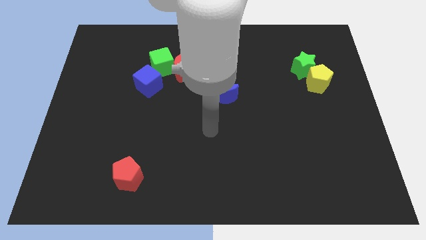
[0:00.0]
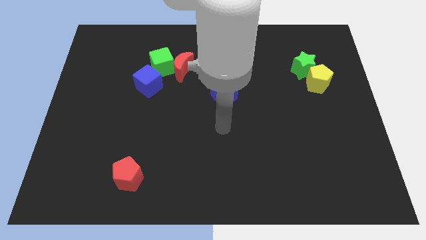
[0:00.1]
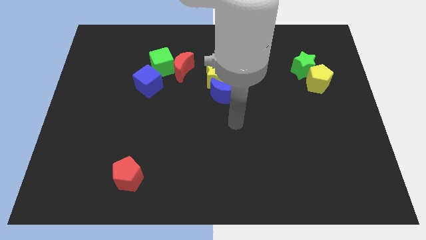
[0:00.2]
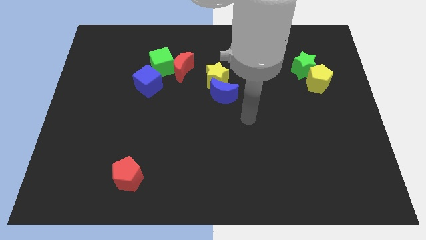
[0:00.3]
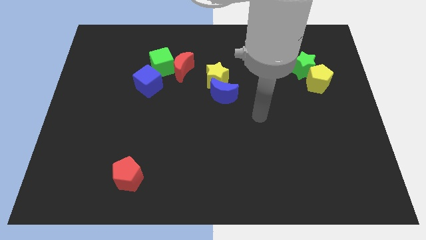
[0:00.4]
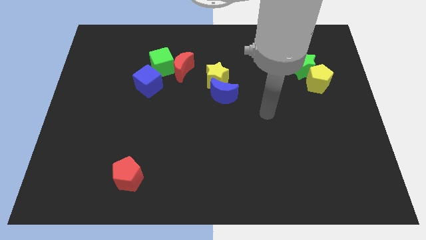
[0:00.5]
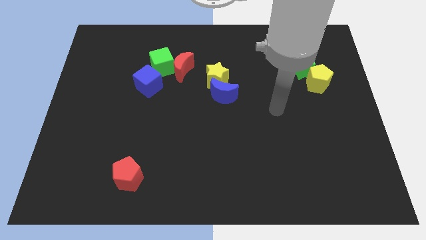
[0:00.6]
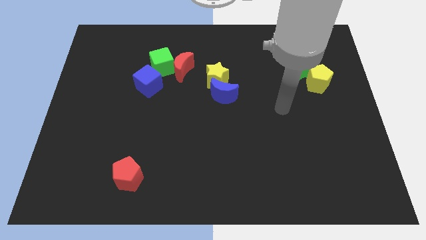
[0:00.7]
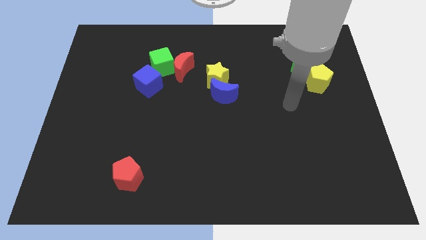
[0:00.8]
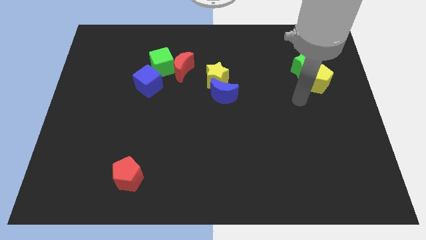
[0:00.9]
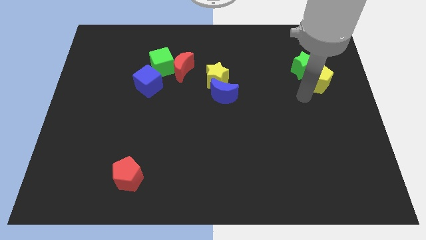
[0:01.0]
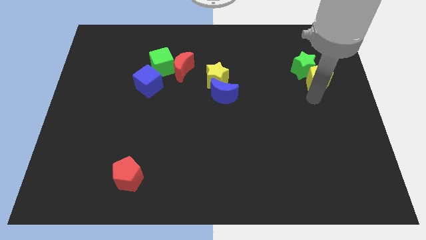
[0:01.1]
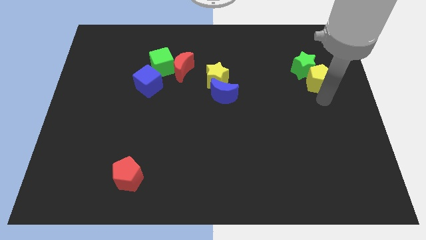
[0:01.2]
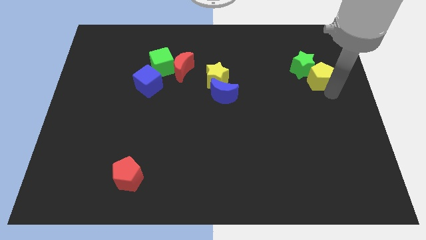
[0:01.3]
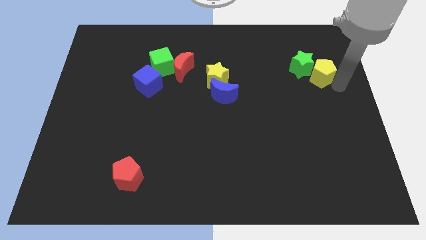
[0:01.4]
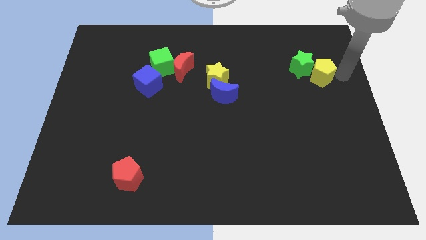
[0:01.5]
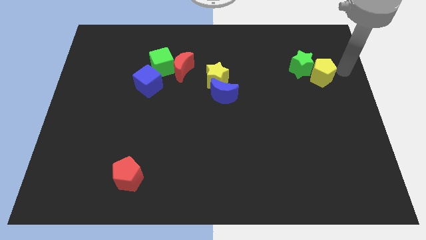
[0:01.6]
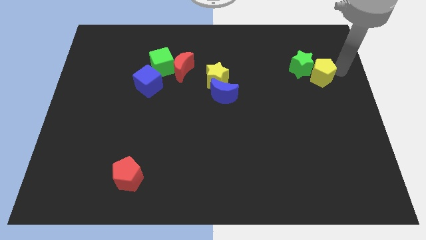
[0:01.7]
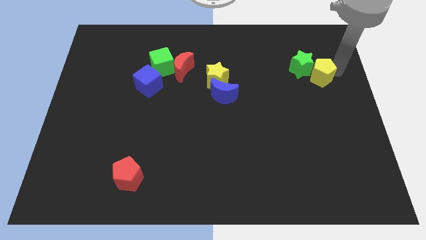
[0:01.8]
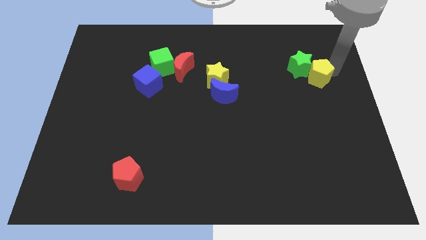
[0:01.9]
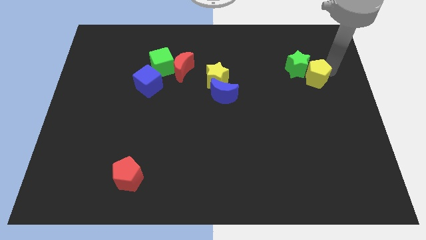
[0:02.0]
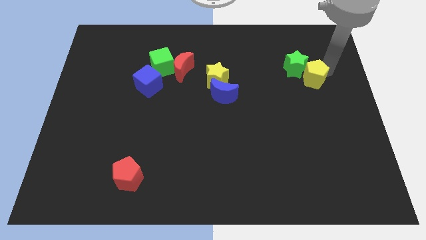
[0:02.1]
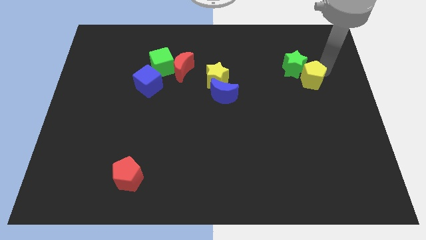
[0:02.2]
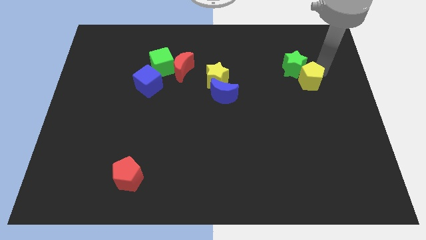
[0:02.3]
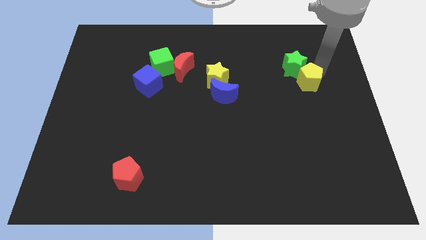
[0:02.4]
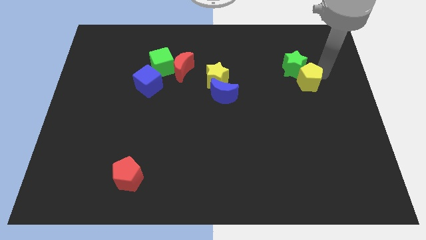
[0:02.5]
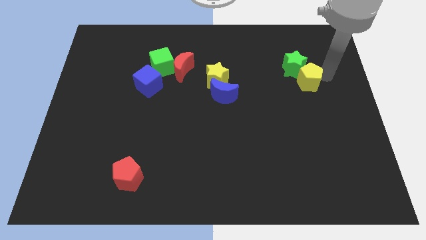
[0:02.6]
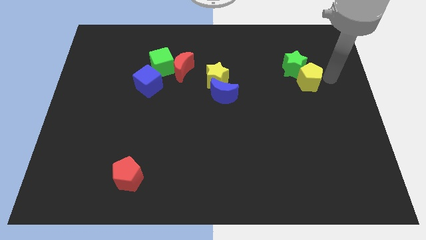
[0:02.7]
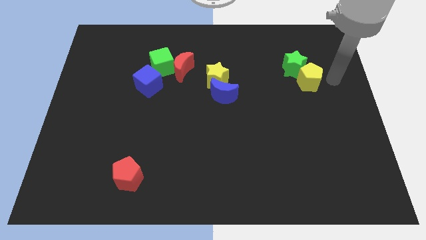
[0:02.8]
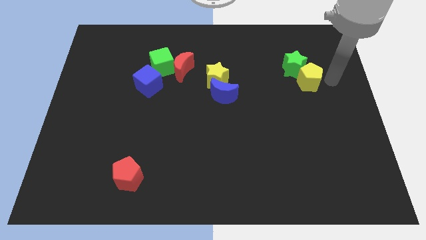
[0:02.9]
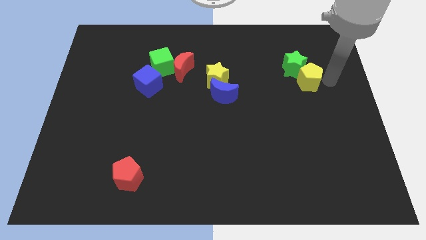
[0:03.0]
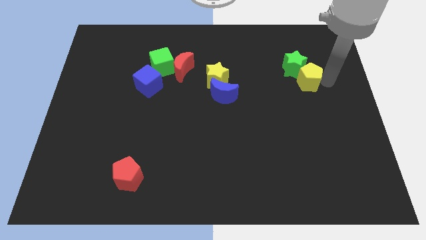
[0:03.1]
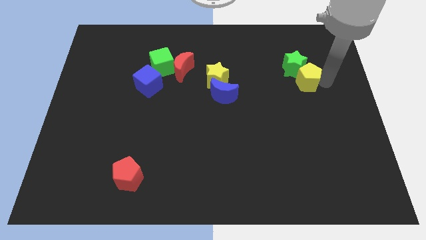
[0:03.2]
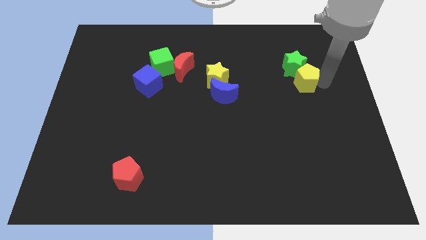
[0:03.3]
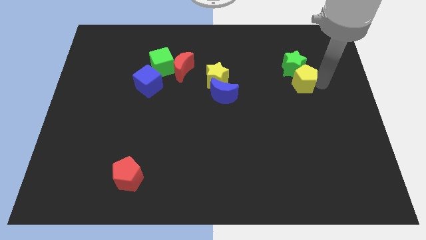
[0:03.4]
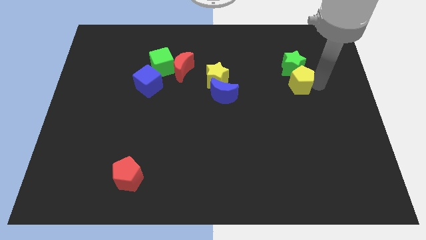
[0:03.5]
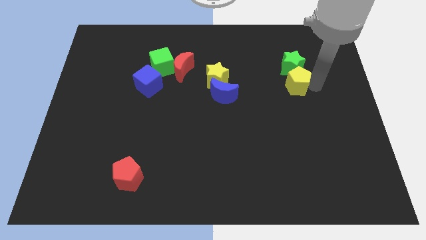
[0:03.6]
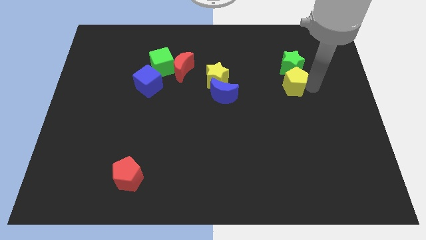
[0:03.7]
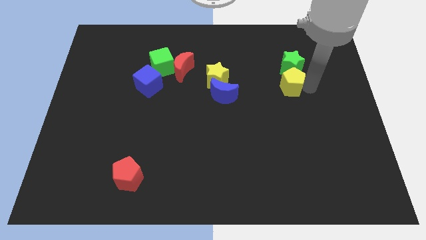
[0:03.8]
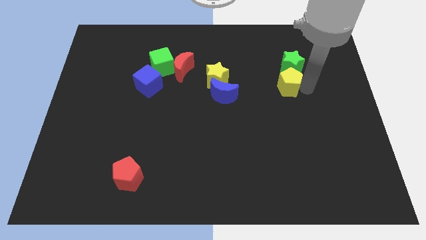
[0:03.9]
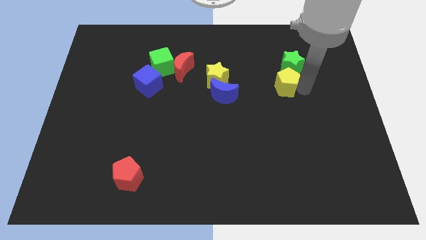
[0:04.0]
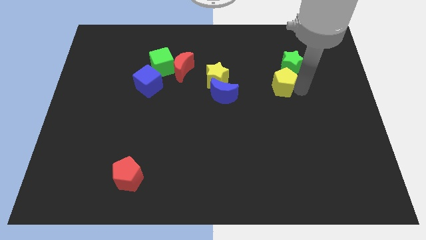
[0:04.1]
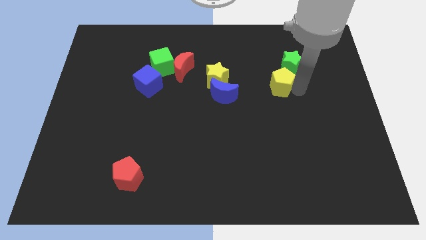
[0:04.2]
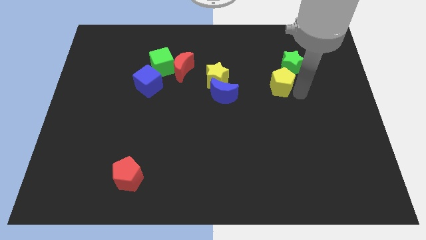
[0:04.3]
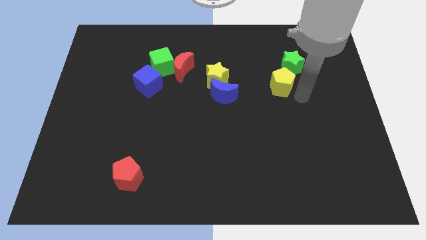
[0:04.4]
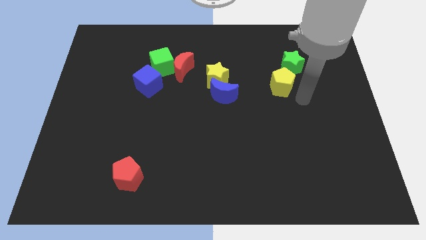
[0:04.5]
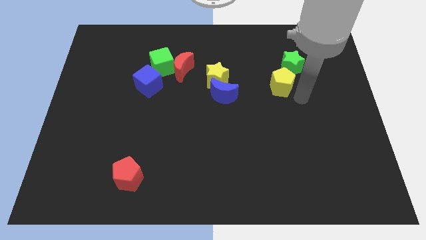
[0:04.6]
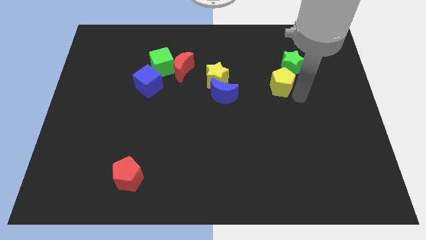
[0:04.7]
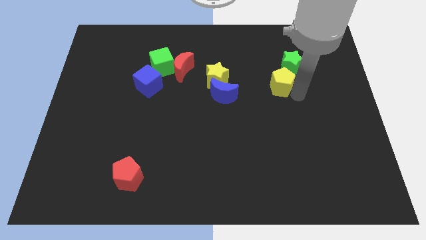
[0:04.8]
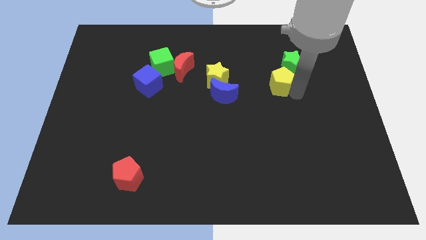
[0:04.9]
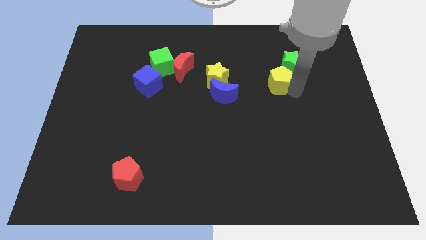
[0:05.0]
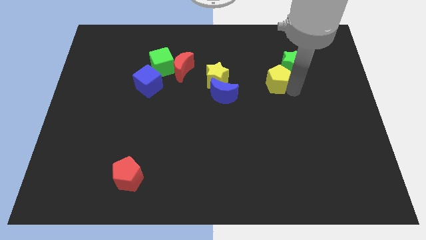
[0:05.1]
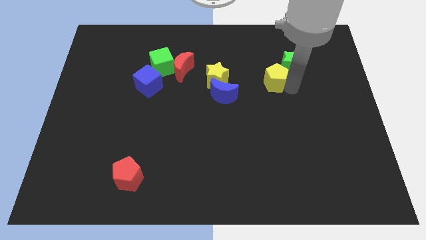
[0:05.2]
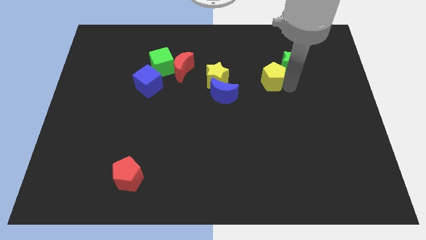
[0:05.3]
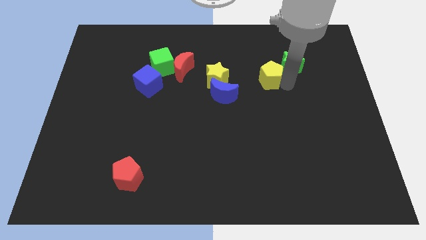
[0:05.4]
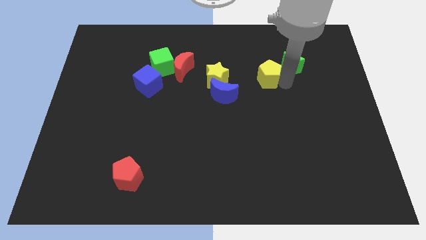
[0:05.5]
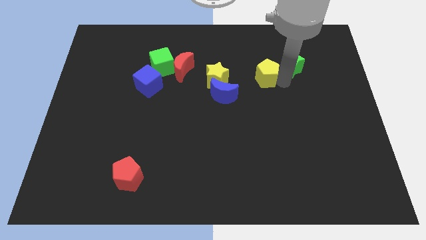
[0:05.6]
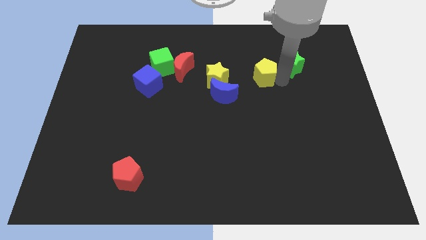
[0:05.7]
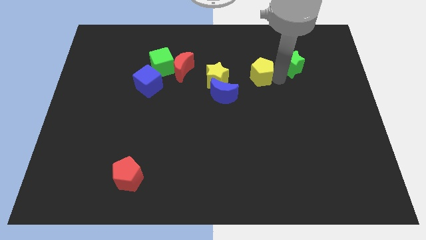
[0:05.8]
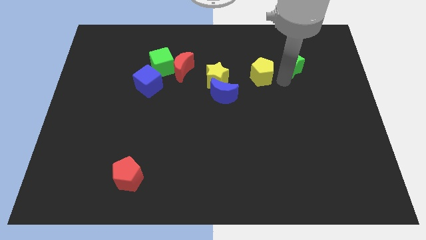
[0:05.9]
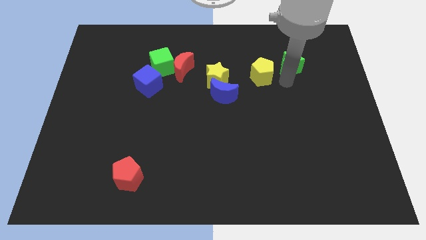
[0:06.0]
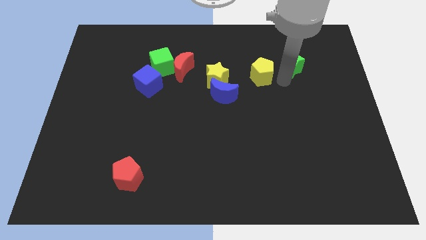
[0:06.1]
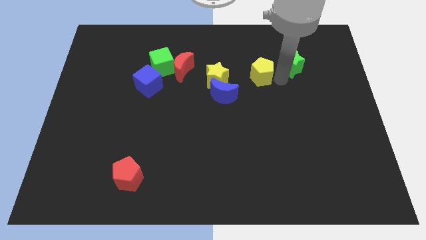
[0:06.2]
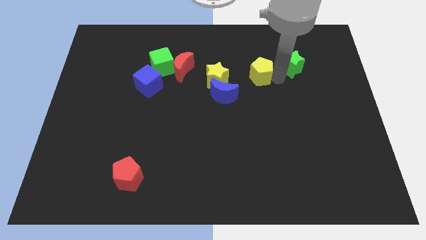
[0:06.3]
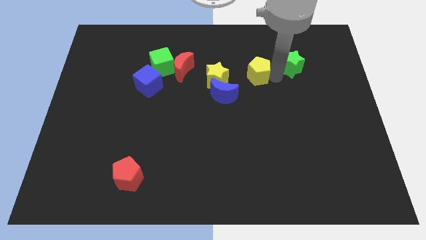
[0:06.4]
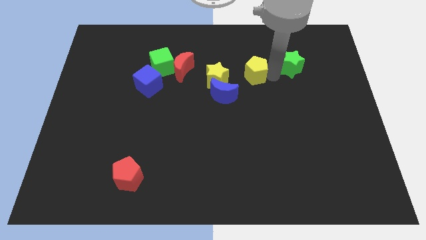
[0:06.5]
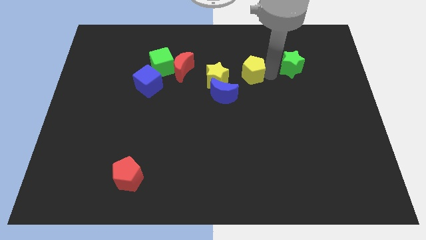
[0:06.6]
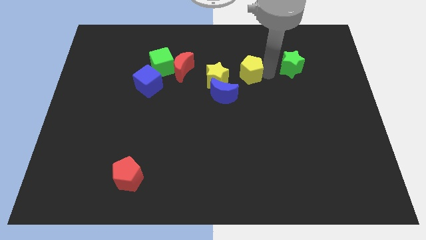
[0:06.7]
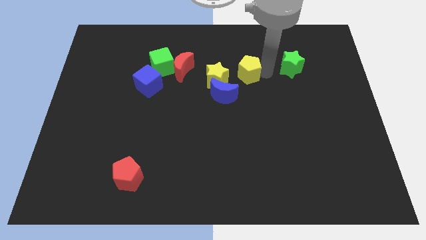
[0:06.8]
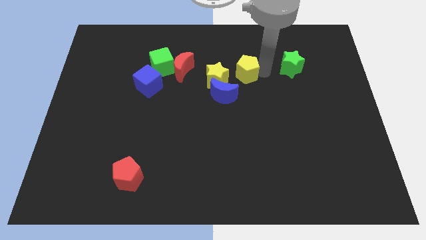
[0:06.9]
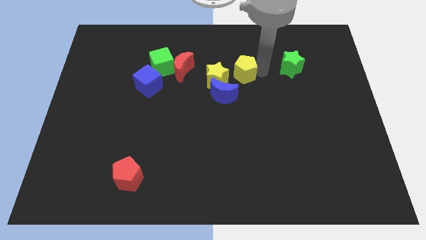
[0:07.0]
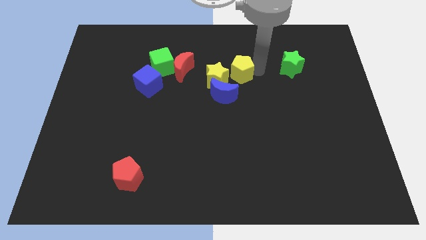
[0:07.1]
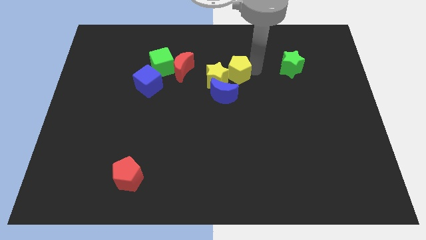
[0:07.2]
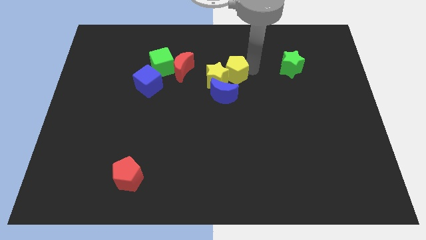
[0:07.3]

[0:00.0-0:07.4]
slide the yellow pentagon to the left

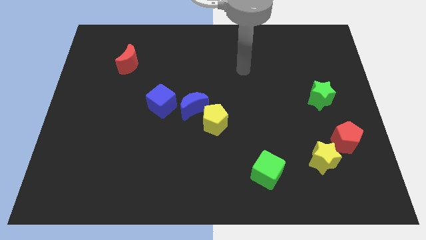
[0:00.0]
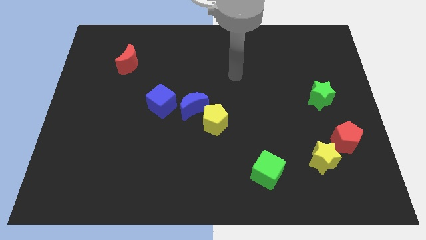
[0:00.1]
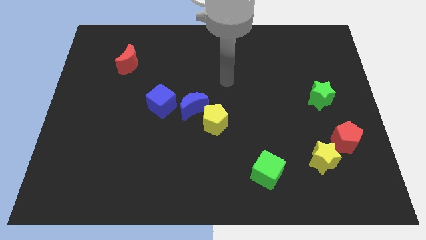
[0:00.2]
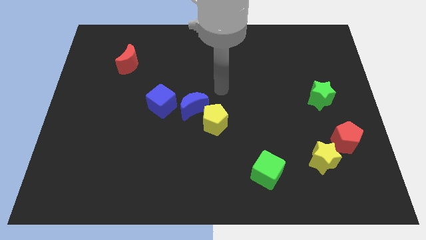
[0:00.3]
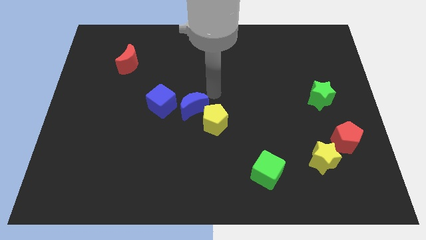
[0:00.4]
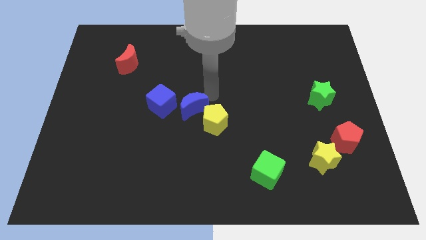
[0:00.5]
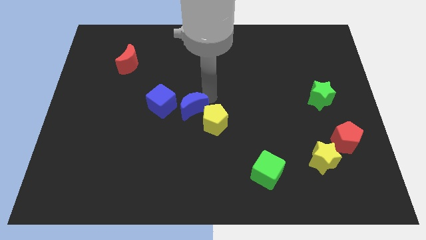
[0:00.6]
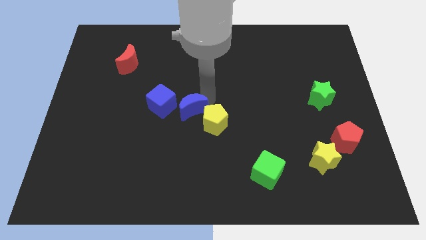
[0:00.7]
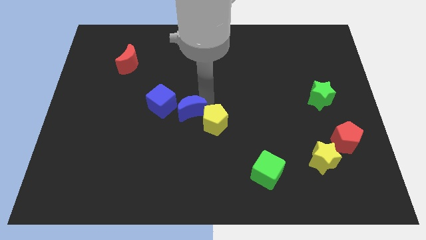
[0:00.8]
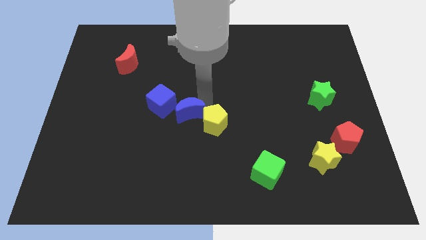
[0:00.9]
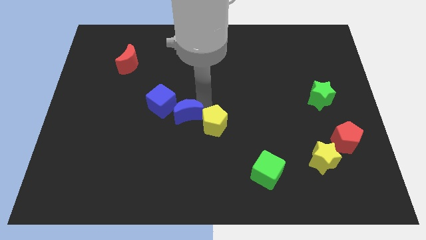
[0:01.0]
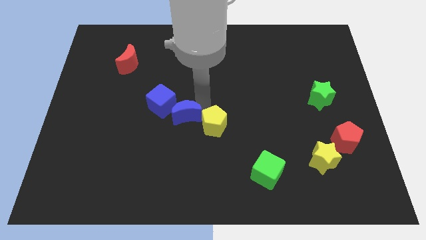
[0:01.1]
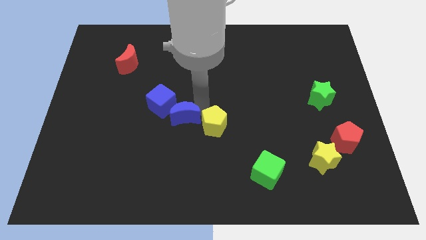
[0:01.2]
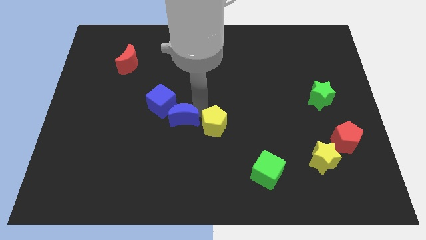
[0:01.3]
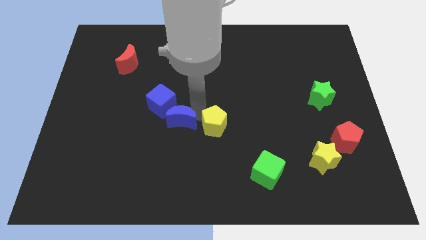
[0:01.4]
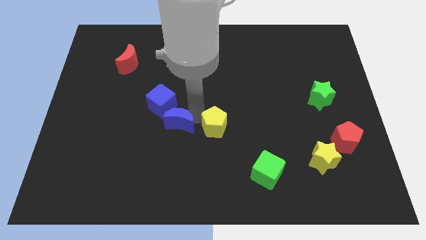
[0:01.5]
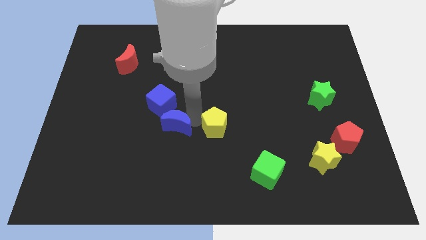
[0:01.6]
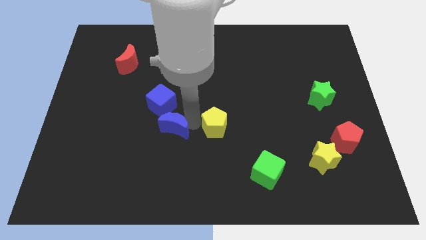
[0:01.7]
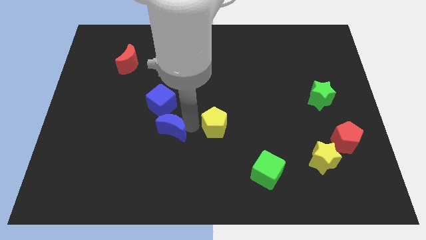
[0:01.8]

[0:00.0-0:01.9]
move the blue moon a little diagonally downwards and to the left
